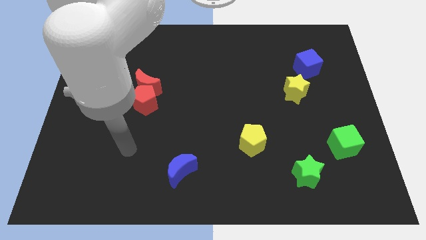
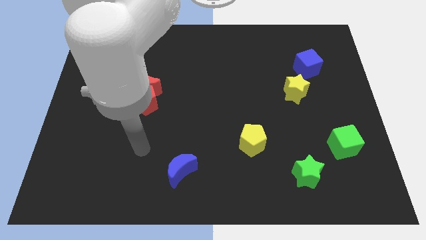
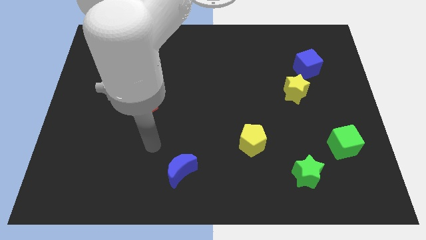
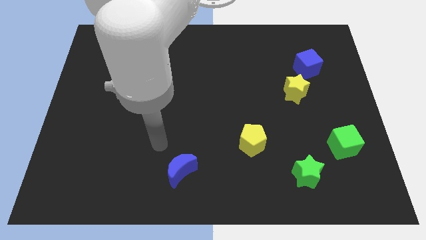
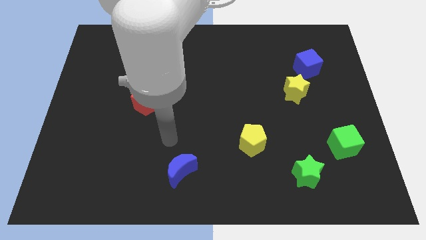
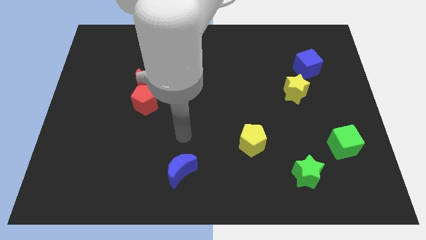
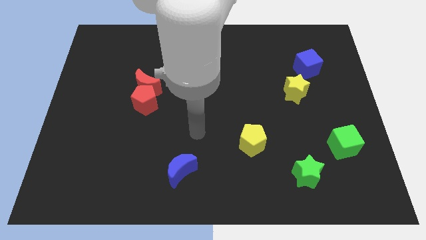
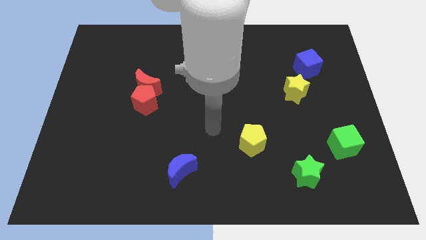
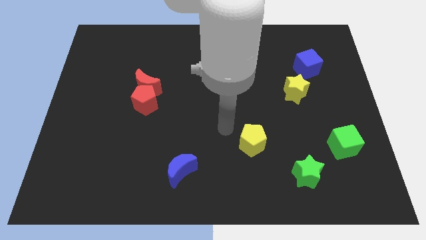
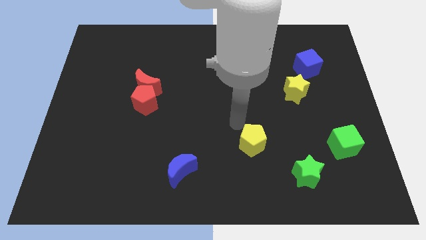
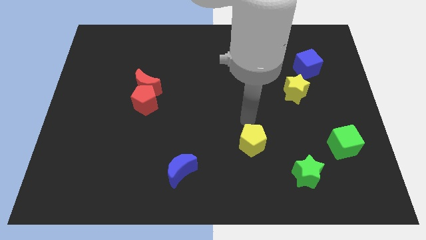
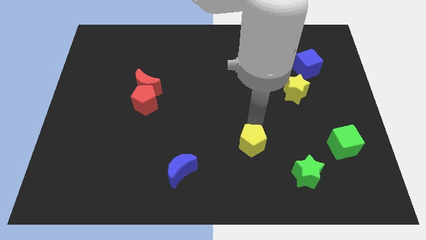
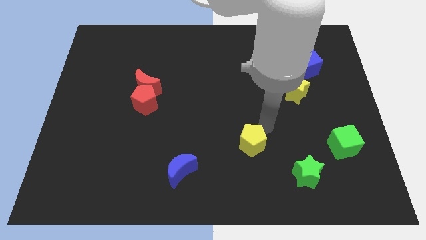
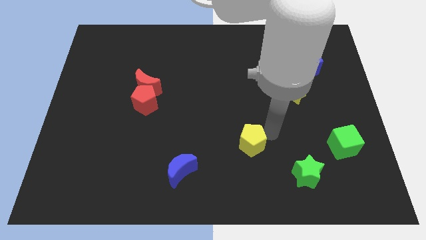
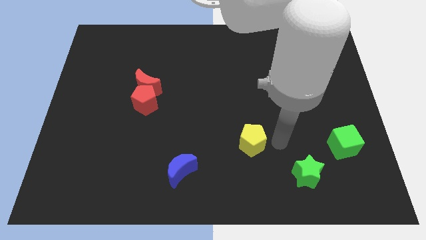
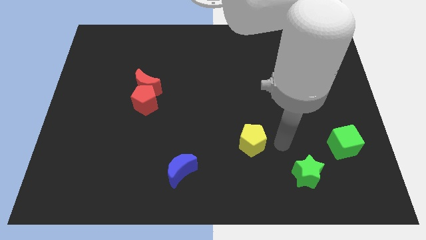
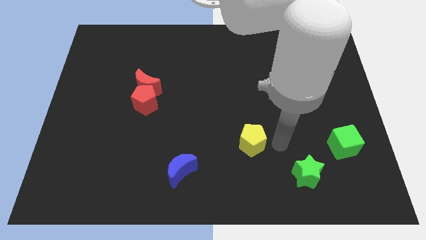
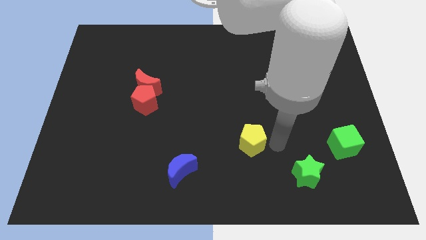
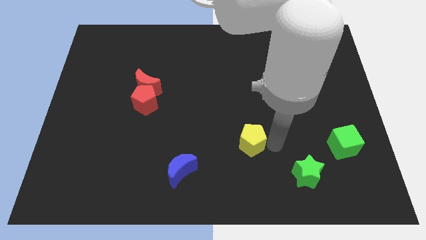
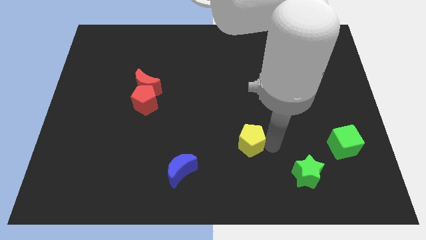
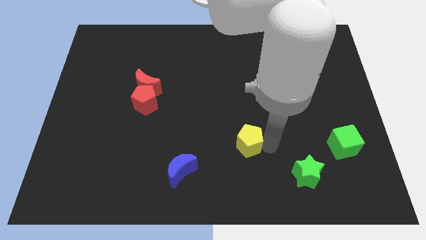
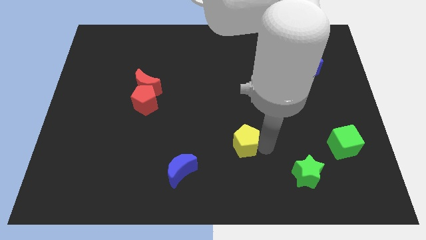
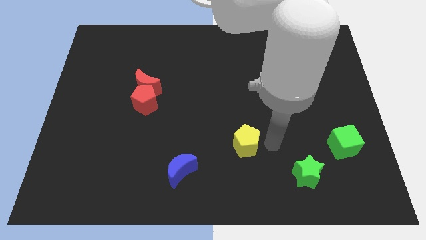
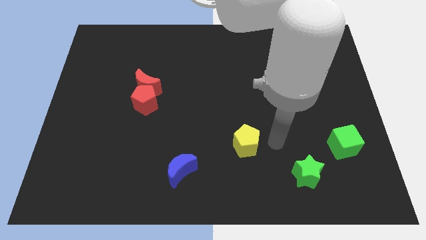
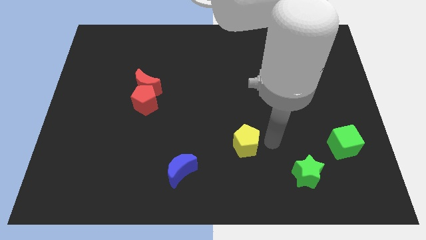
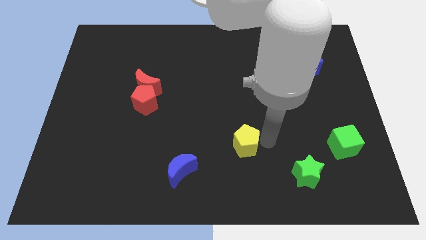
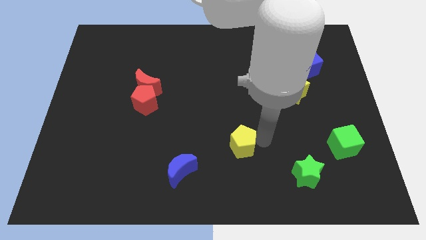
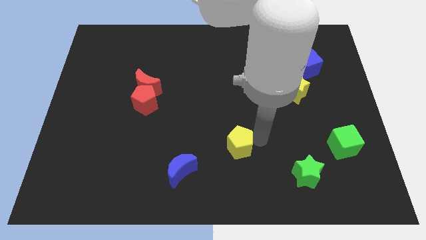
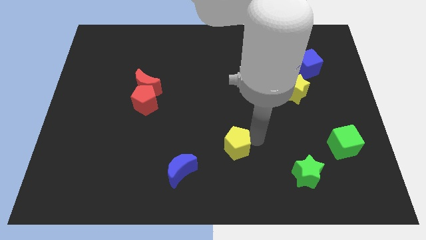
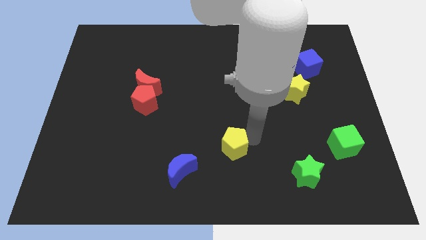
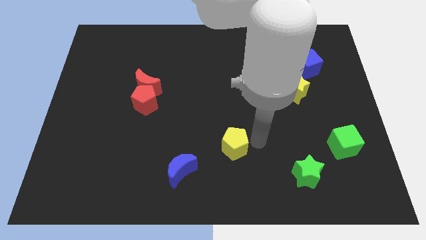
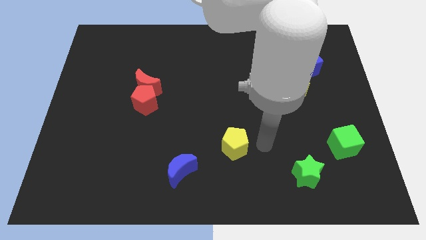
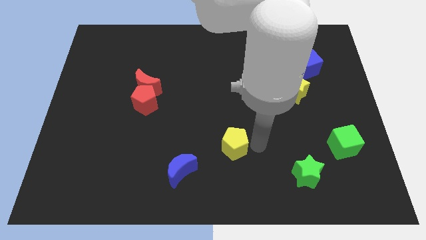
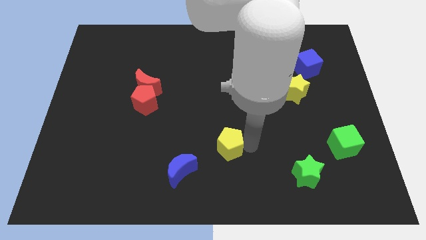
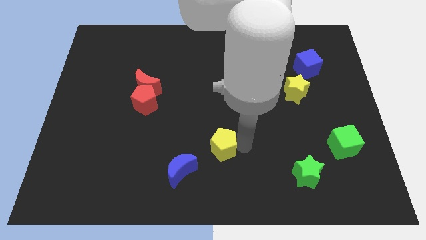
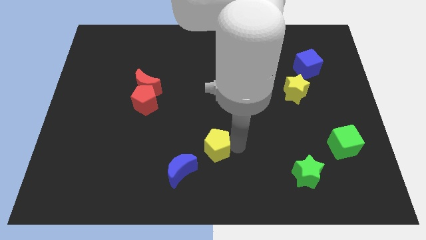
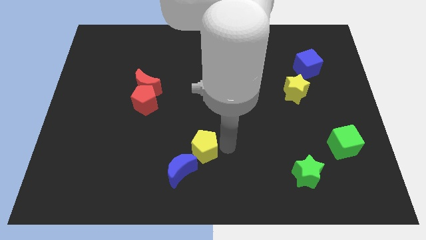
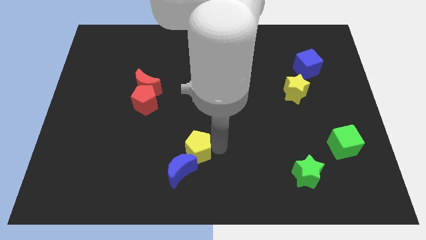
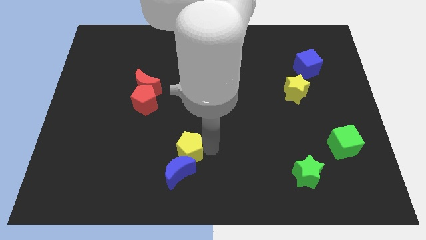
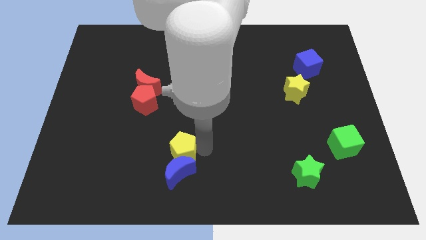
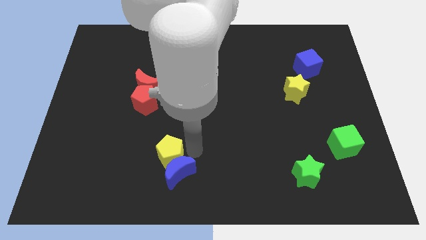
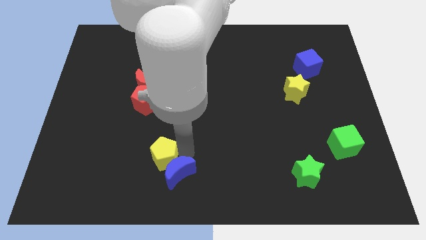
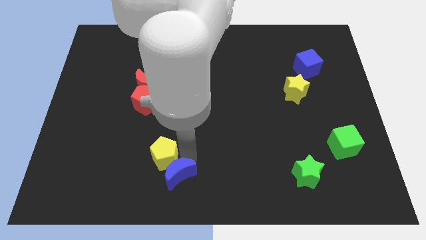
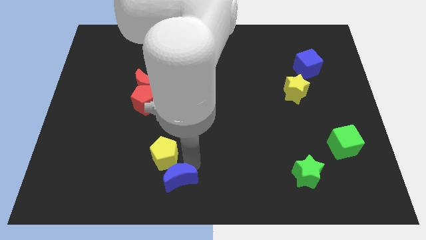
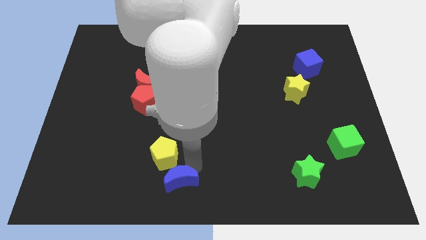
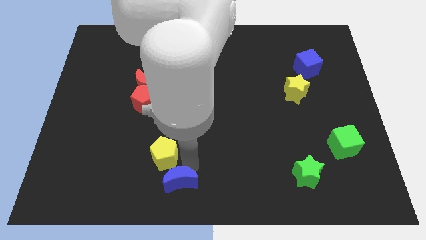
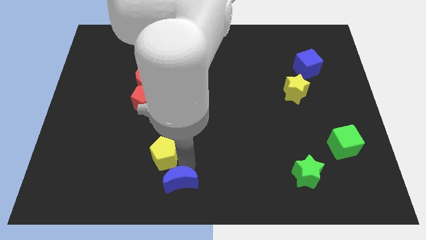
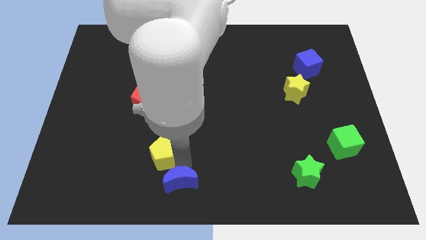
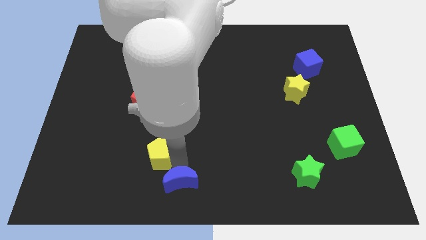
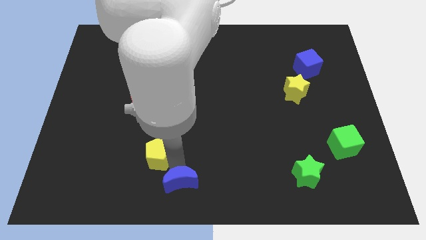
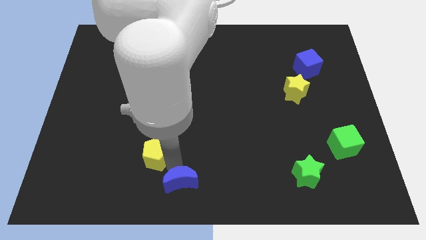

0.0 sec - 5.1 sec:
move the yellow pentagon left

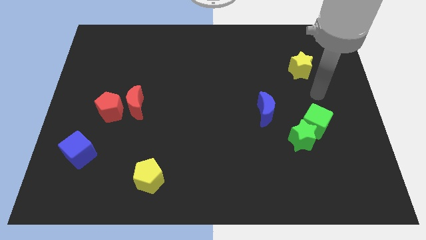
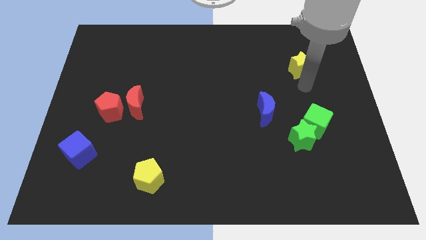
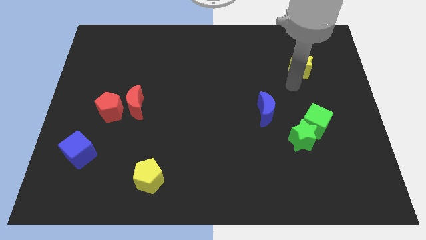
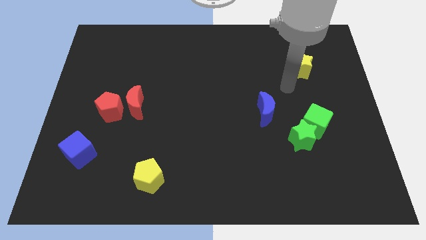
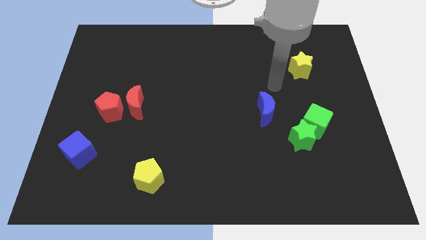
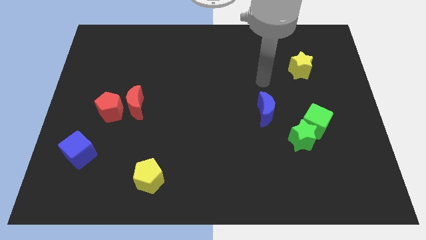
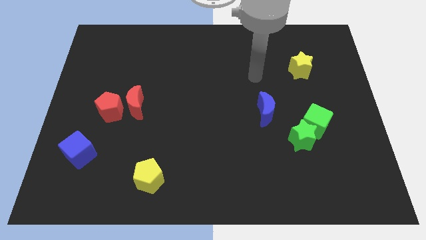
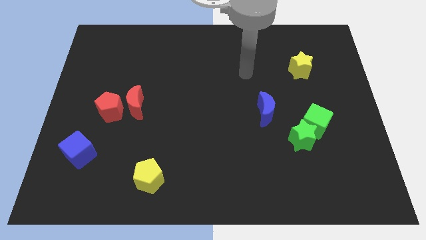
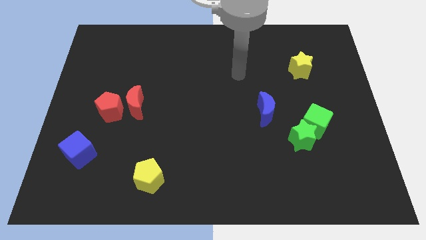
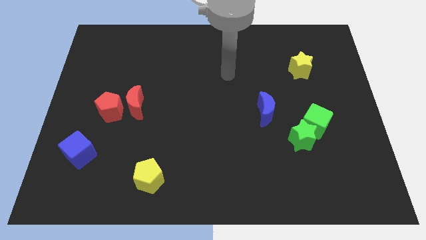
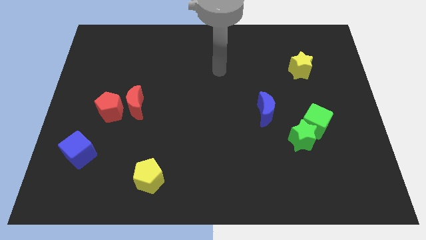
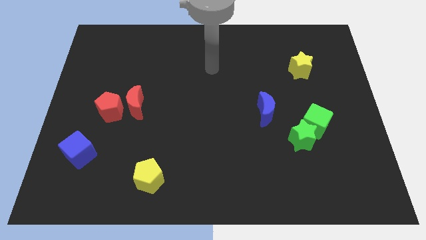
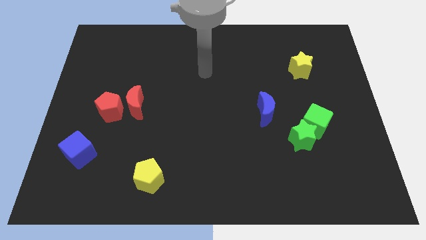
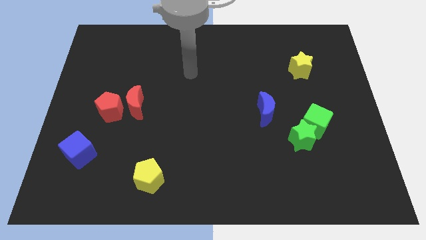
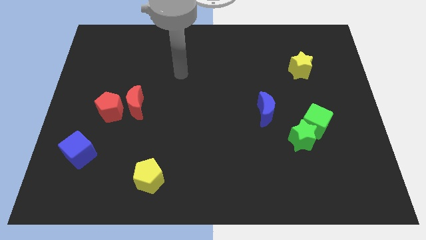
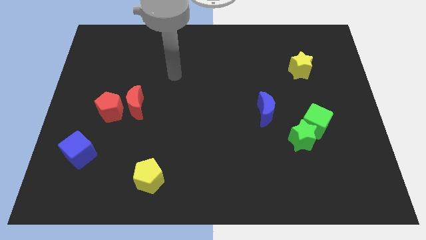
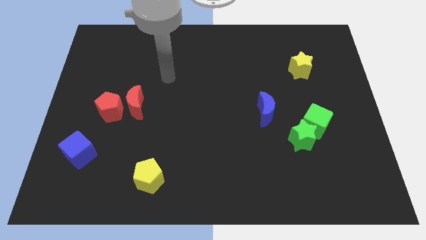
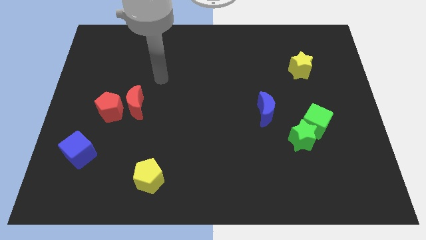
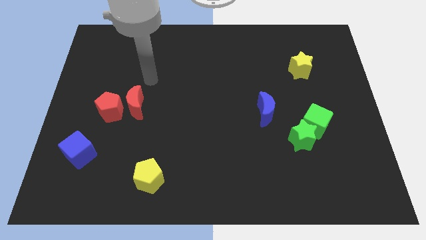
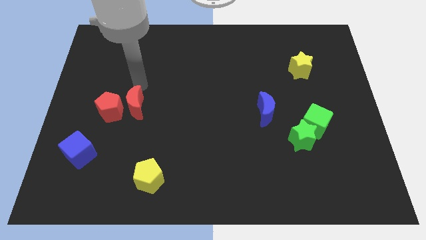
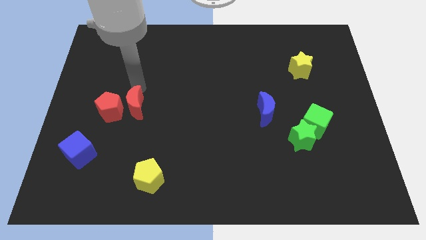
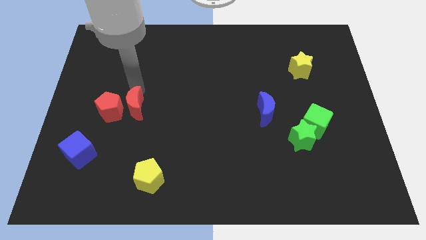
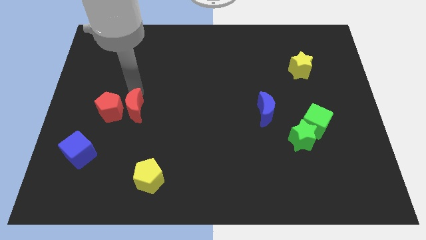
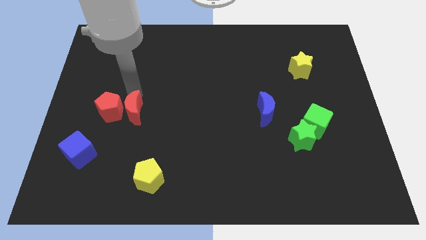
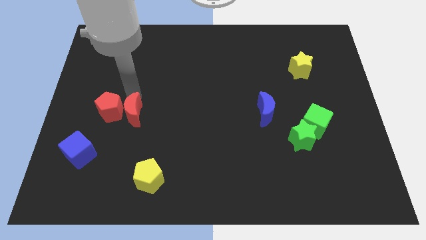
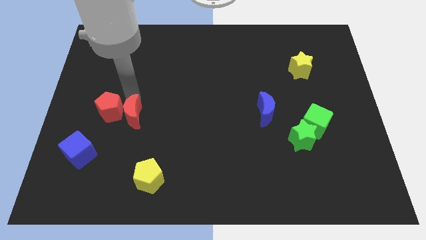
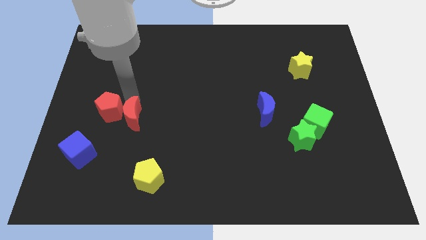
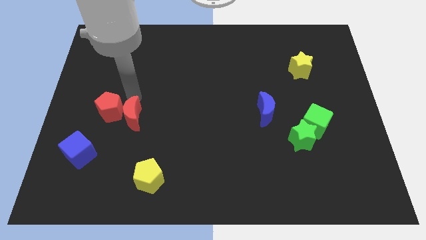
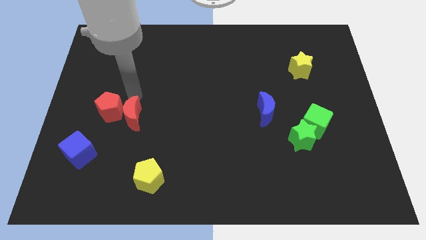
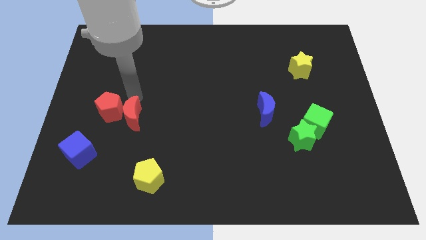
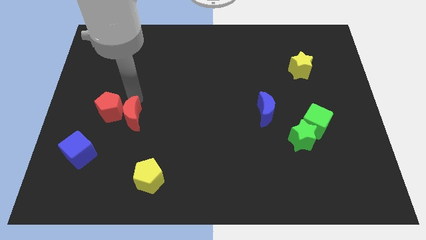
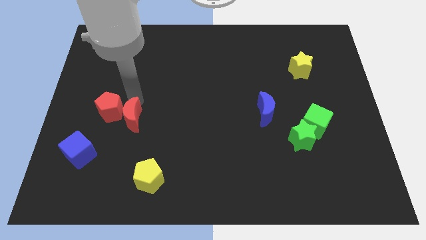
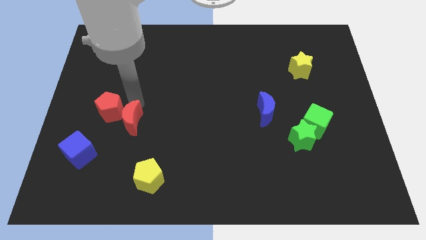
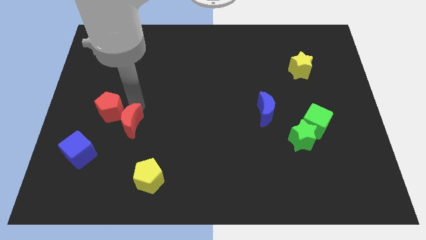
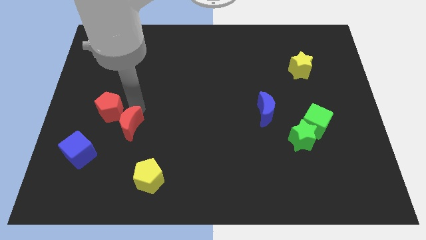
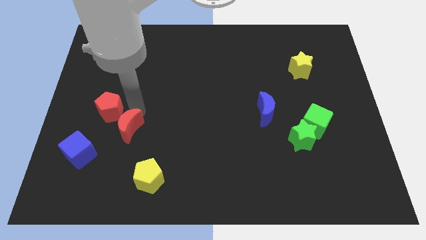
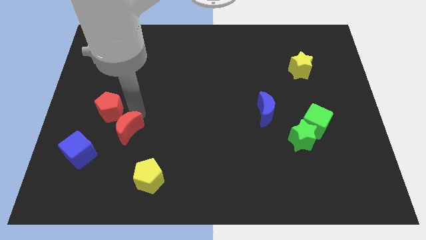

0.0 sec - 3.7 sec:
move the red moon downwards a bit
